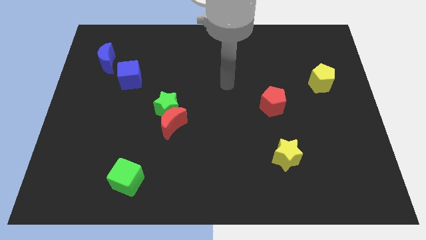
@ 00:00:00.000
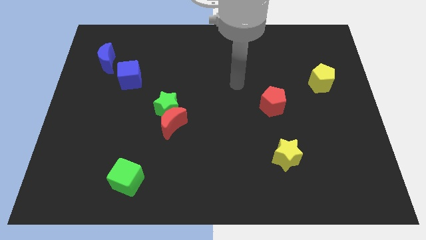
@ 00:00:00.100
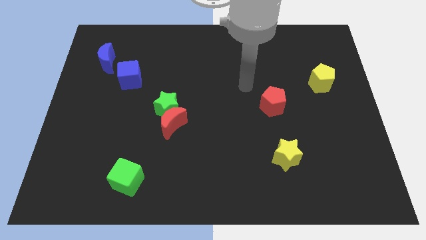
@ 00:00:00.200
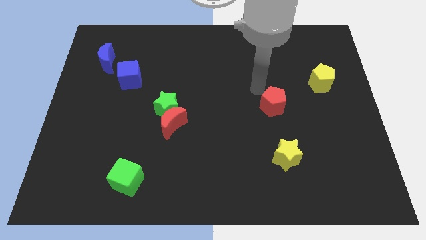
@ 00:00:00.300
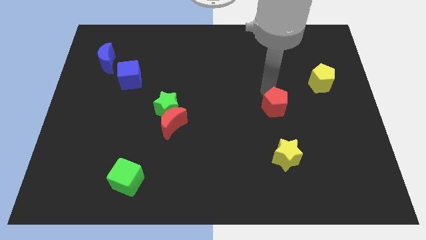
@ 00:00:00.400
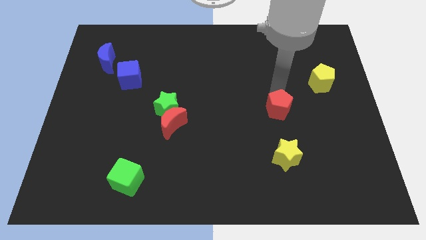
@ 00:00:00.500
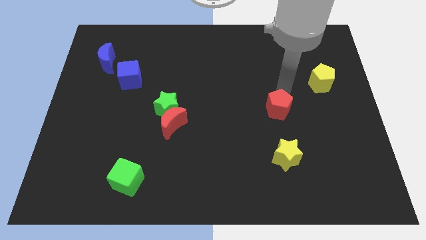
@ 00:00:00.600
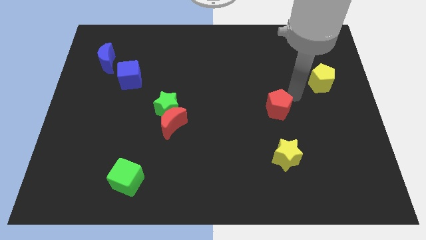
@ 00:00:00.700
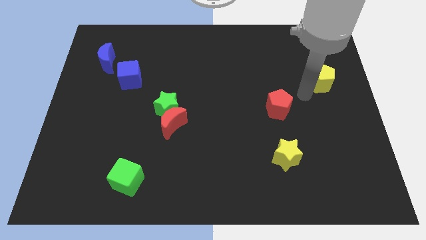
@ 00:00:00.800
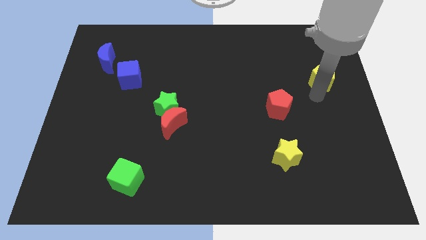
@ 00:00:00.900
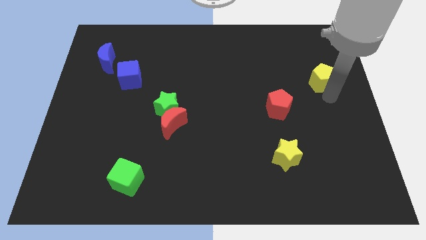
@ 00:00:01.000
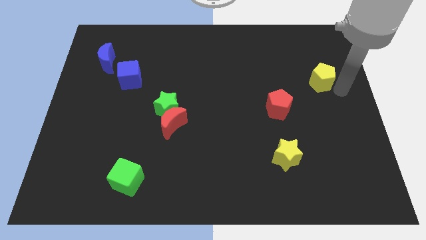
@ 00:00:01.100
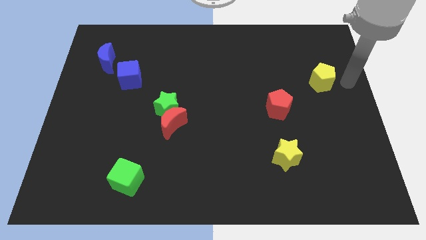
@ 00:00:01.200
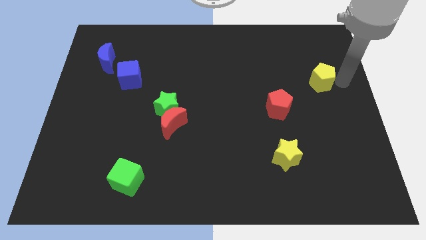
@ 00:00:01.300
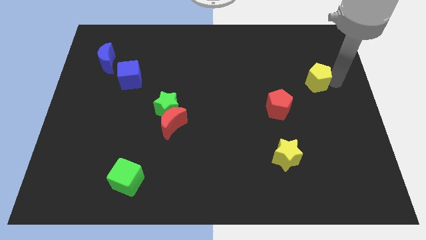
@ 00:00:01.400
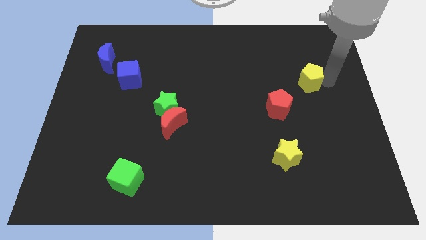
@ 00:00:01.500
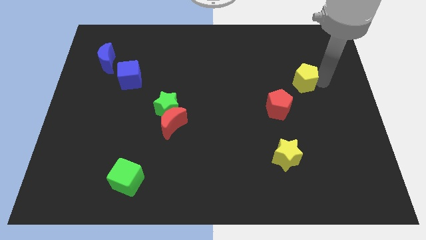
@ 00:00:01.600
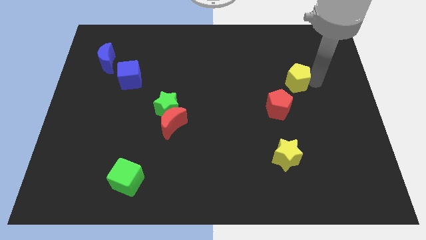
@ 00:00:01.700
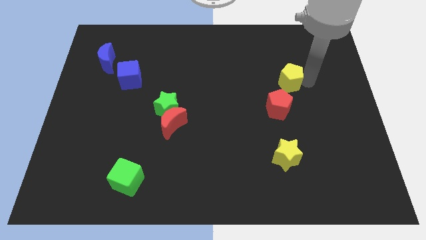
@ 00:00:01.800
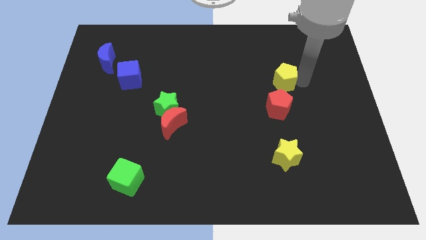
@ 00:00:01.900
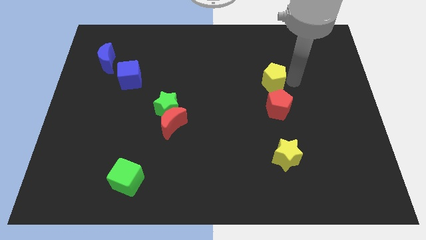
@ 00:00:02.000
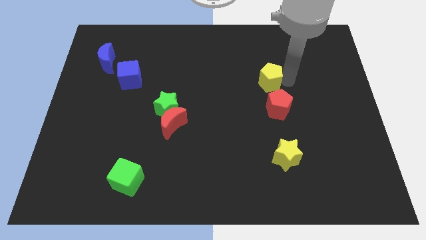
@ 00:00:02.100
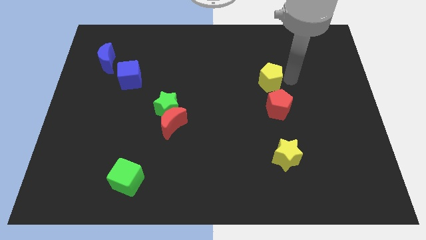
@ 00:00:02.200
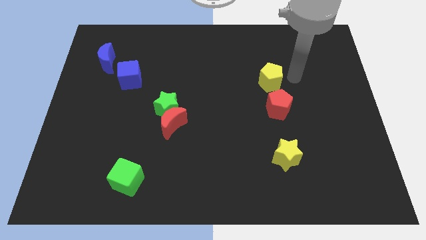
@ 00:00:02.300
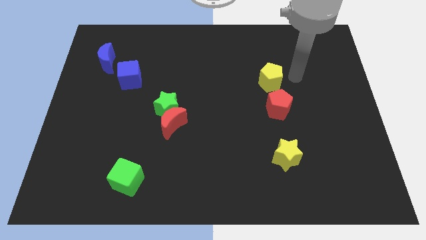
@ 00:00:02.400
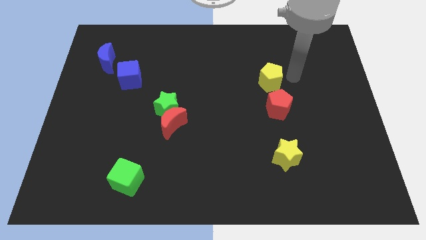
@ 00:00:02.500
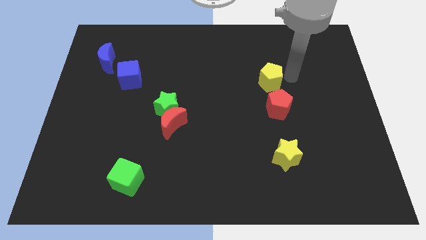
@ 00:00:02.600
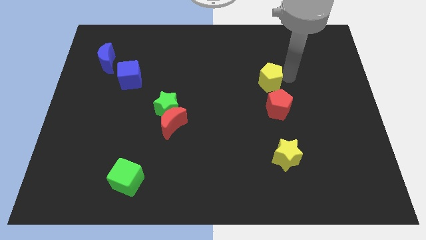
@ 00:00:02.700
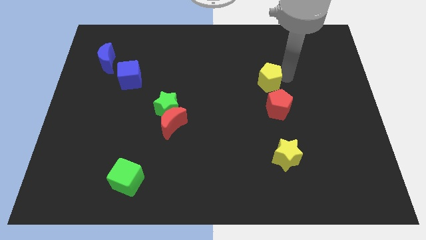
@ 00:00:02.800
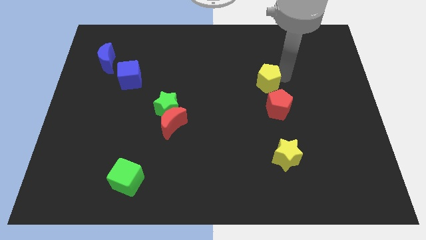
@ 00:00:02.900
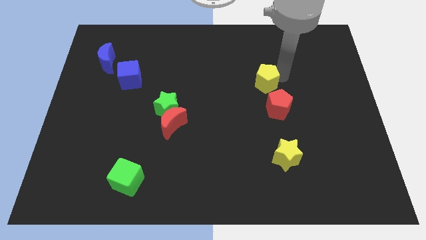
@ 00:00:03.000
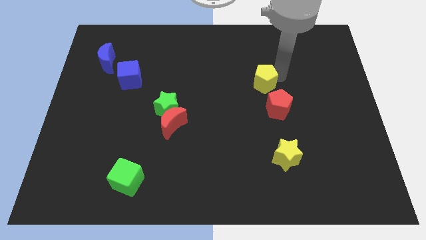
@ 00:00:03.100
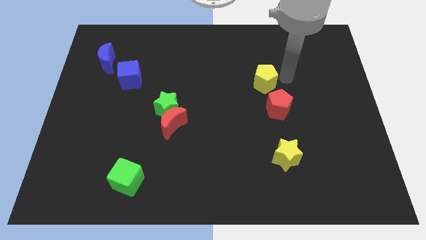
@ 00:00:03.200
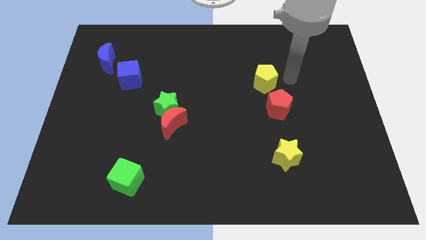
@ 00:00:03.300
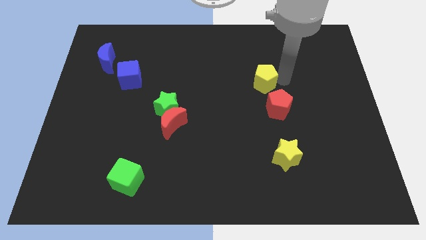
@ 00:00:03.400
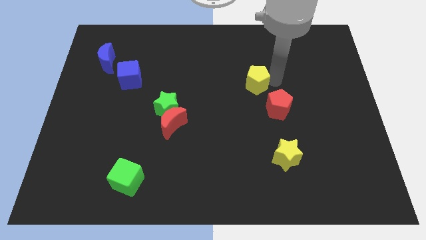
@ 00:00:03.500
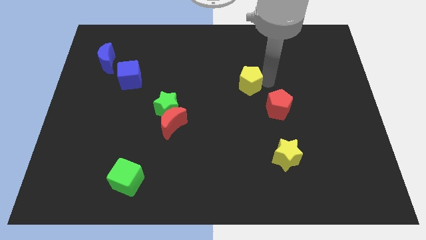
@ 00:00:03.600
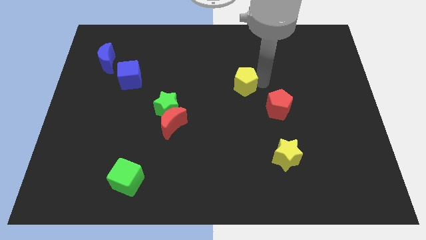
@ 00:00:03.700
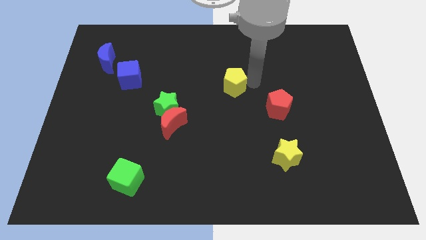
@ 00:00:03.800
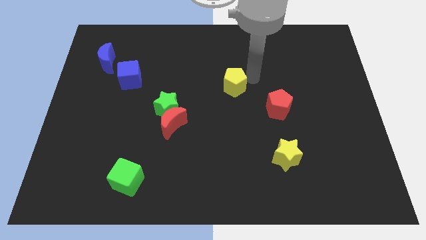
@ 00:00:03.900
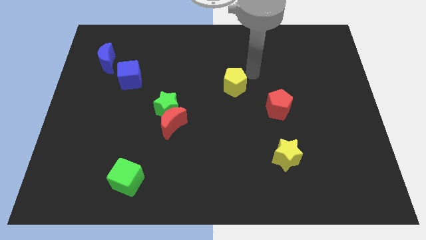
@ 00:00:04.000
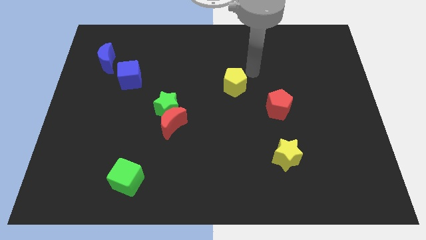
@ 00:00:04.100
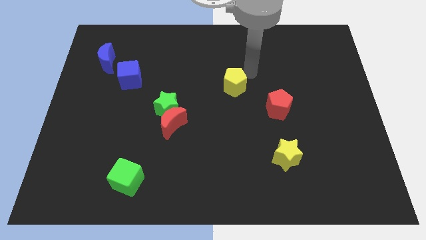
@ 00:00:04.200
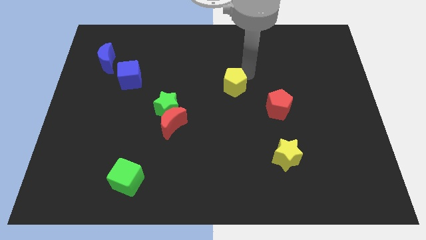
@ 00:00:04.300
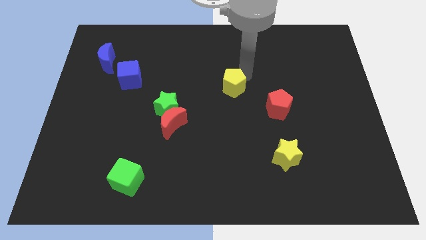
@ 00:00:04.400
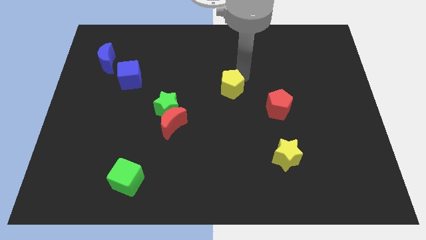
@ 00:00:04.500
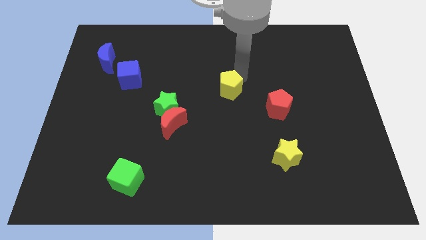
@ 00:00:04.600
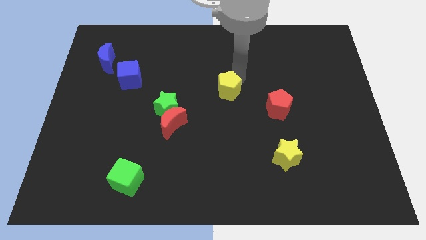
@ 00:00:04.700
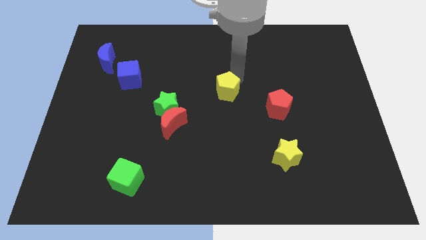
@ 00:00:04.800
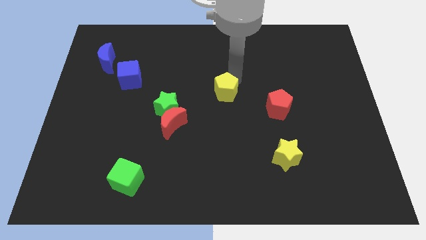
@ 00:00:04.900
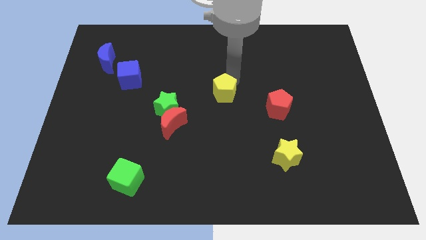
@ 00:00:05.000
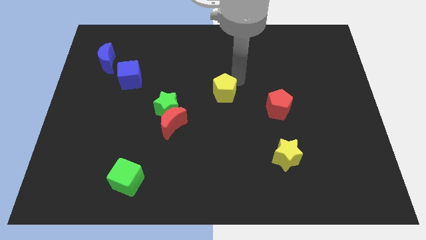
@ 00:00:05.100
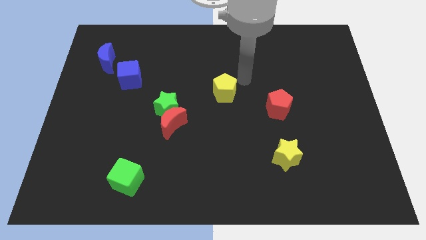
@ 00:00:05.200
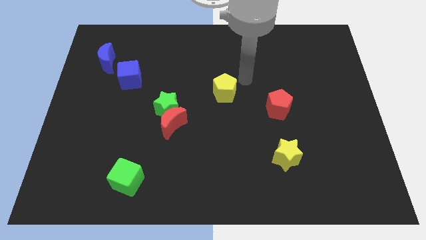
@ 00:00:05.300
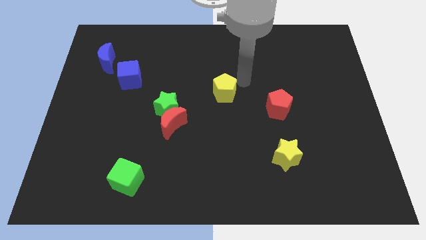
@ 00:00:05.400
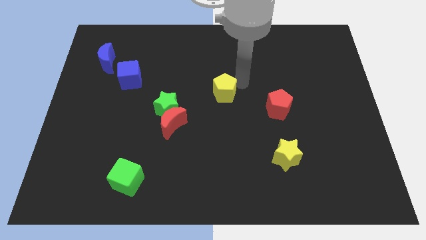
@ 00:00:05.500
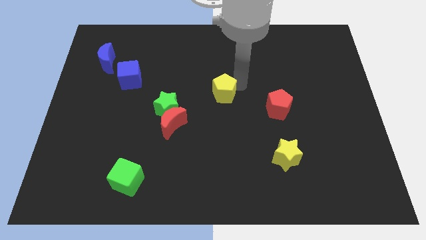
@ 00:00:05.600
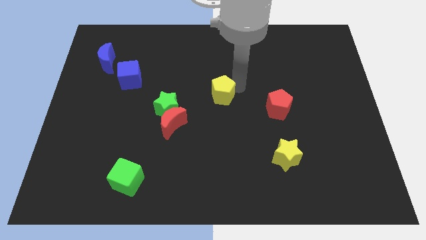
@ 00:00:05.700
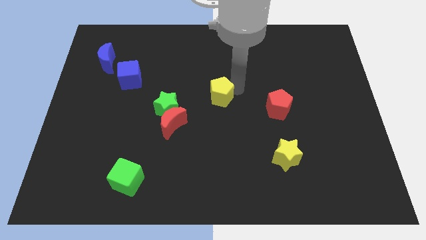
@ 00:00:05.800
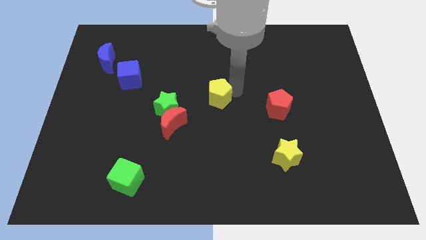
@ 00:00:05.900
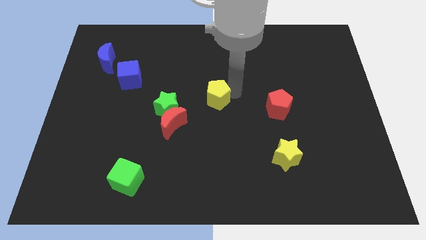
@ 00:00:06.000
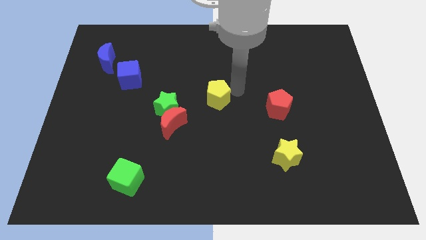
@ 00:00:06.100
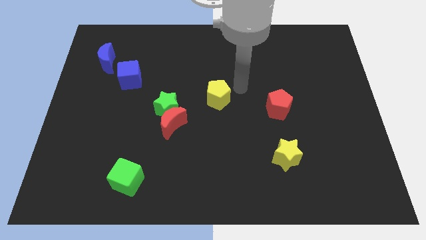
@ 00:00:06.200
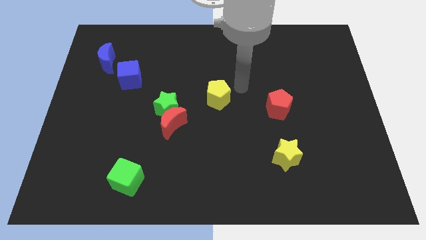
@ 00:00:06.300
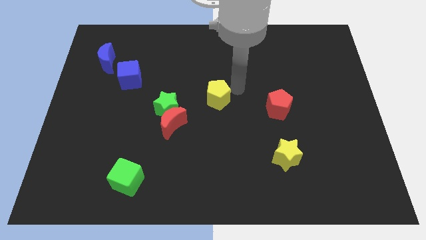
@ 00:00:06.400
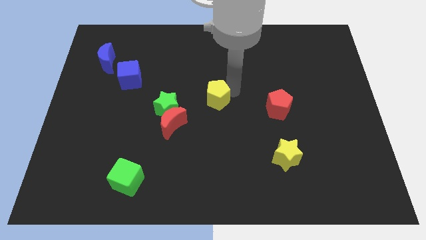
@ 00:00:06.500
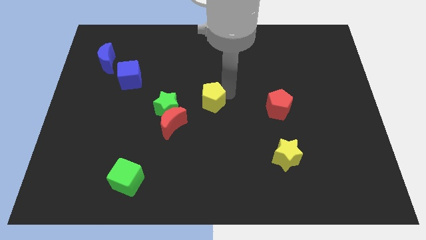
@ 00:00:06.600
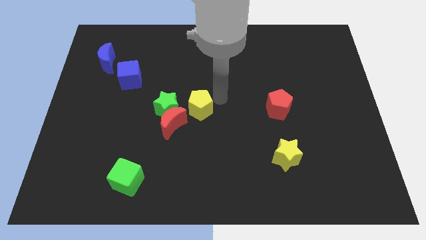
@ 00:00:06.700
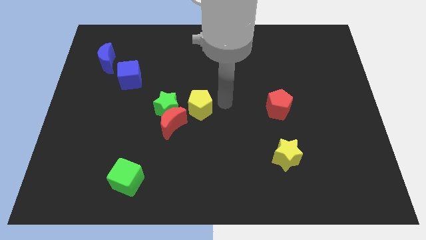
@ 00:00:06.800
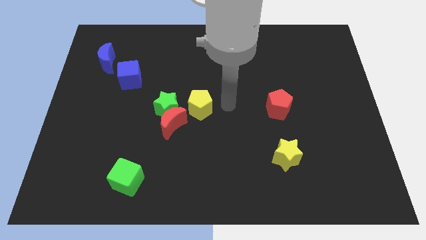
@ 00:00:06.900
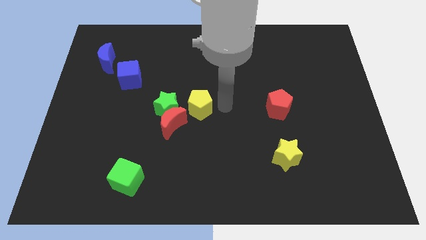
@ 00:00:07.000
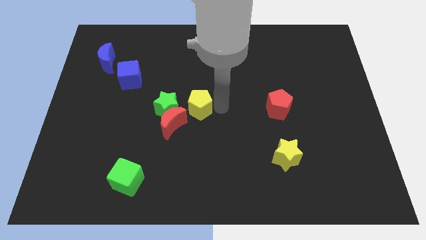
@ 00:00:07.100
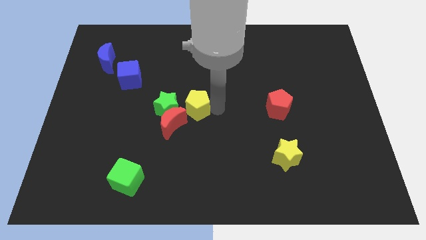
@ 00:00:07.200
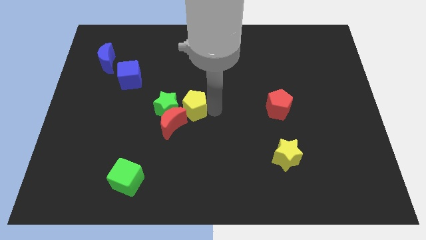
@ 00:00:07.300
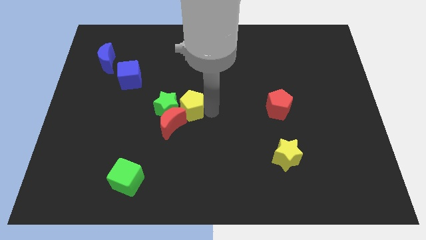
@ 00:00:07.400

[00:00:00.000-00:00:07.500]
move the yellow pentagon to the green star

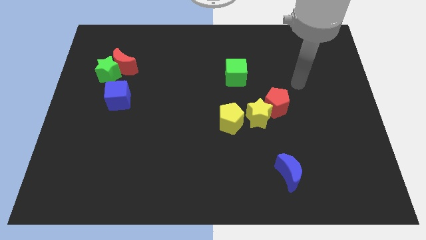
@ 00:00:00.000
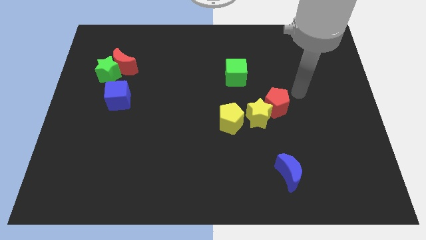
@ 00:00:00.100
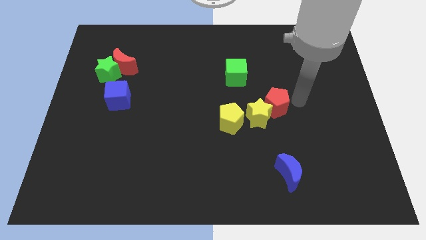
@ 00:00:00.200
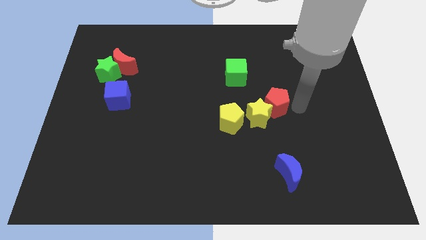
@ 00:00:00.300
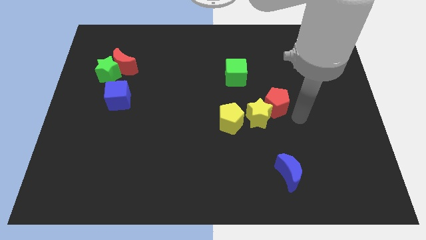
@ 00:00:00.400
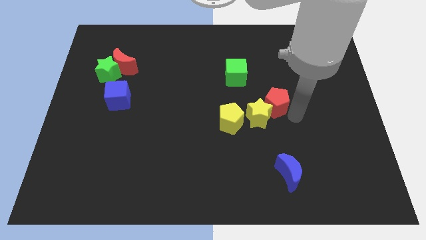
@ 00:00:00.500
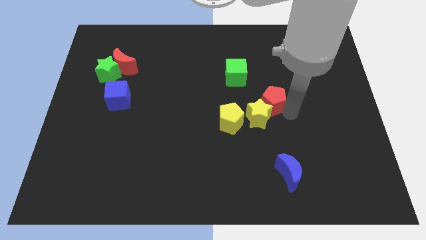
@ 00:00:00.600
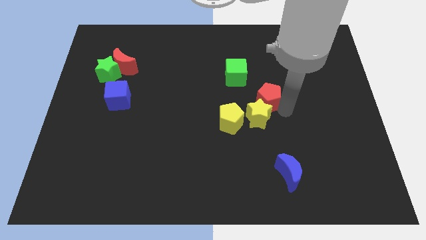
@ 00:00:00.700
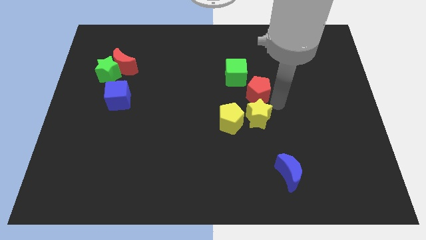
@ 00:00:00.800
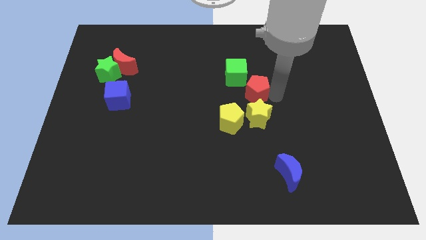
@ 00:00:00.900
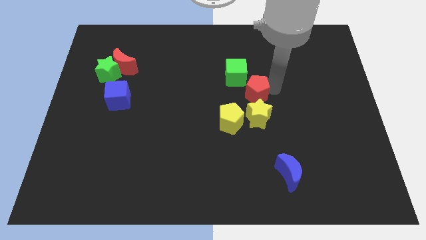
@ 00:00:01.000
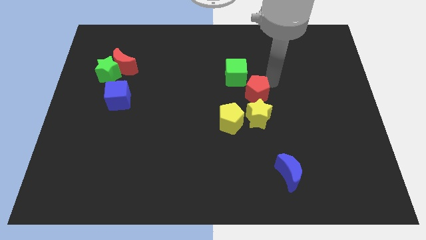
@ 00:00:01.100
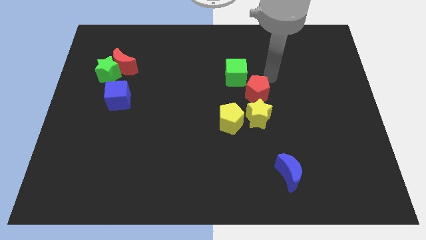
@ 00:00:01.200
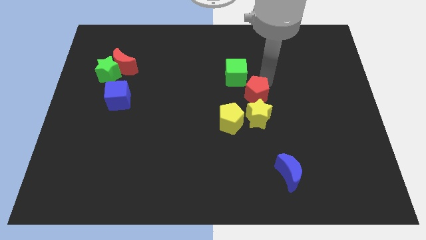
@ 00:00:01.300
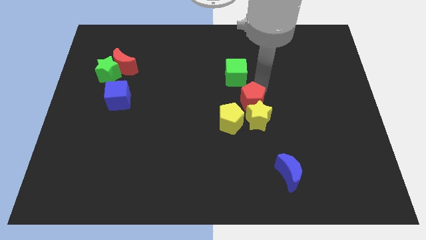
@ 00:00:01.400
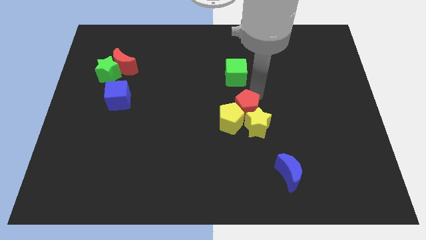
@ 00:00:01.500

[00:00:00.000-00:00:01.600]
put the red pentagon close to the yellow pentagon
